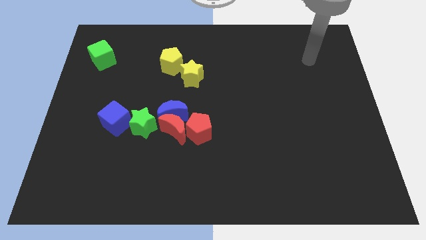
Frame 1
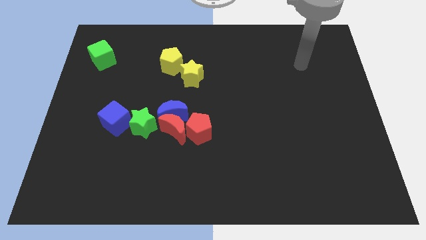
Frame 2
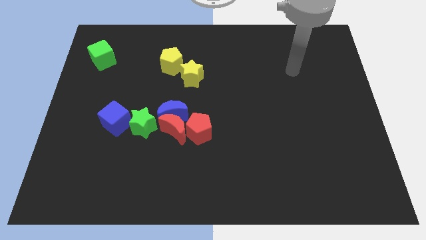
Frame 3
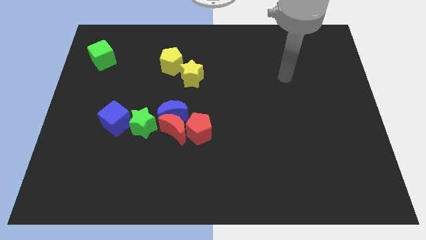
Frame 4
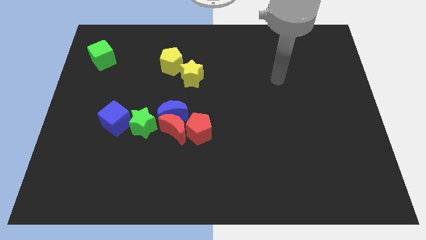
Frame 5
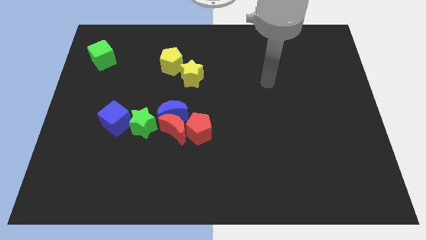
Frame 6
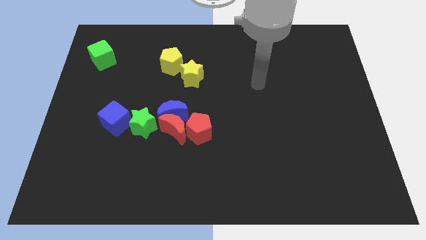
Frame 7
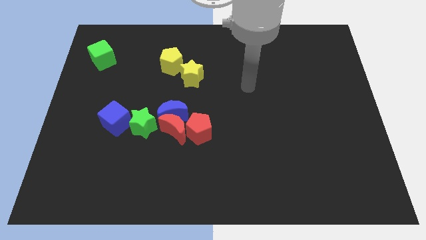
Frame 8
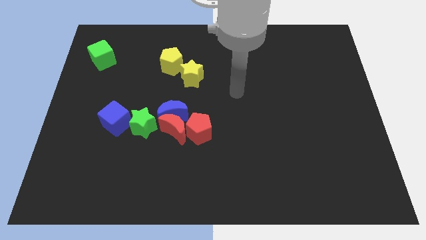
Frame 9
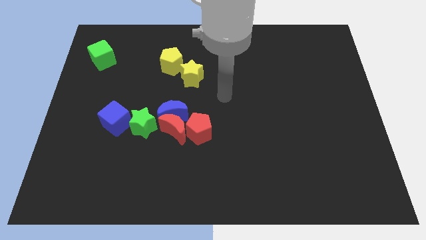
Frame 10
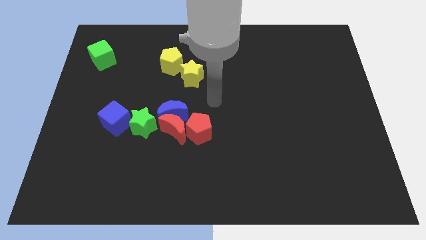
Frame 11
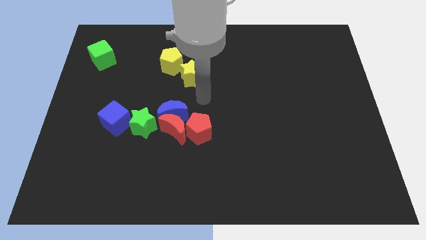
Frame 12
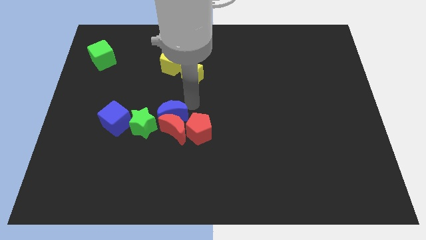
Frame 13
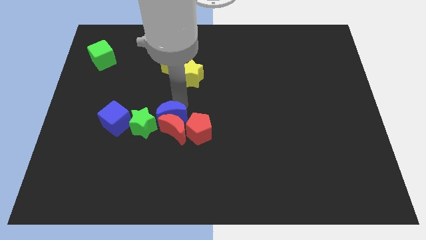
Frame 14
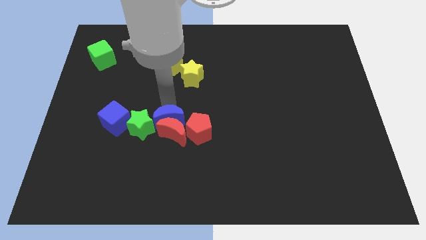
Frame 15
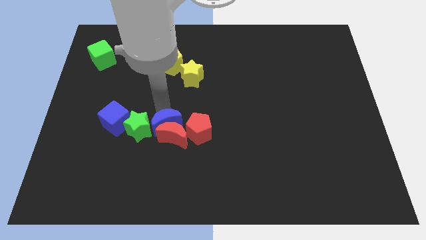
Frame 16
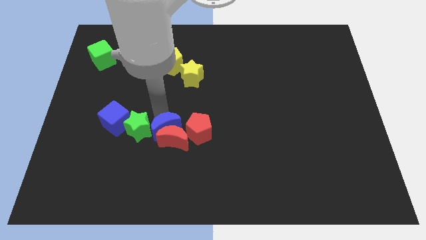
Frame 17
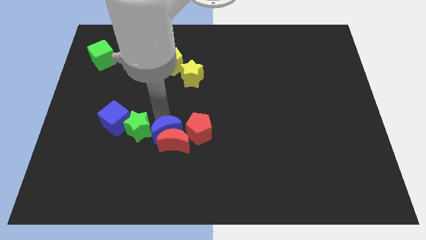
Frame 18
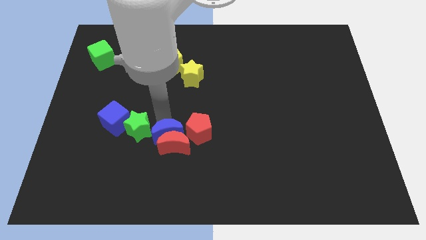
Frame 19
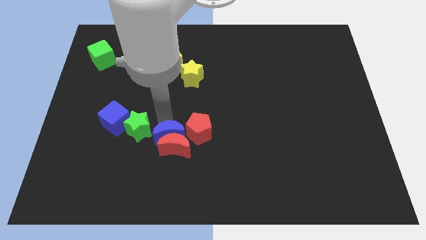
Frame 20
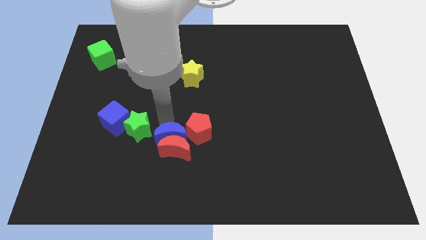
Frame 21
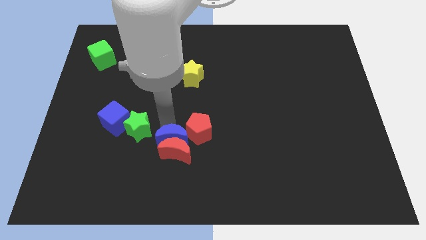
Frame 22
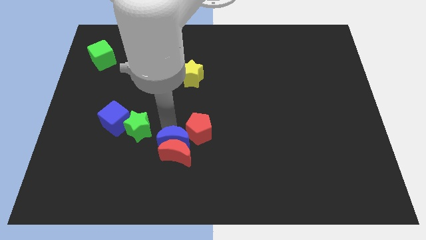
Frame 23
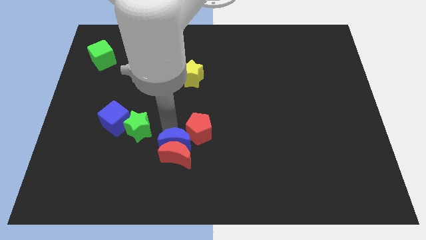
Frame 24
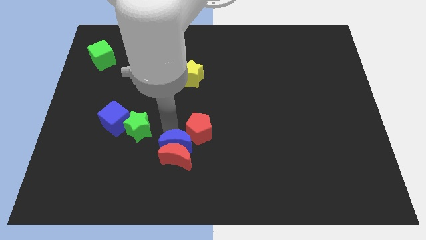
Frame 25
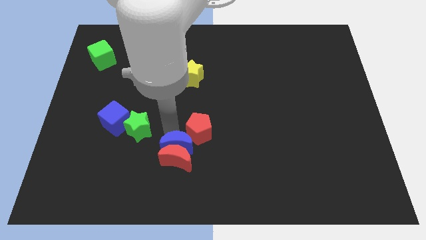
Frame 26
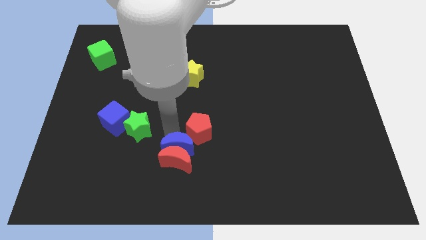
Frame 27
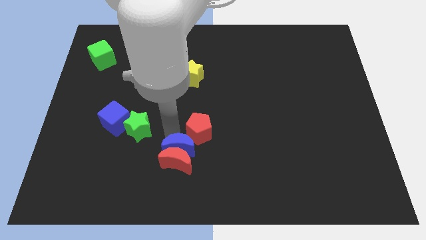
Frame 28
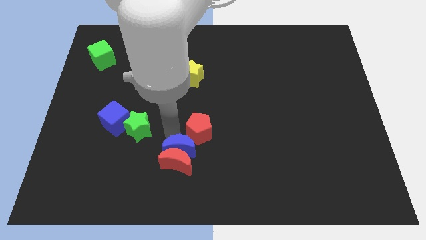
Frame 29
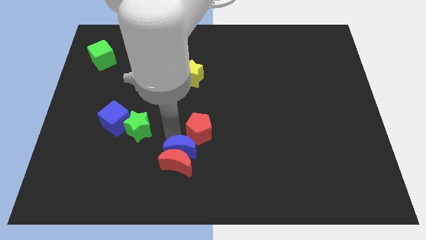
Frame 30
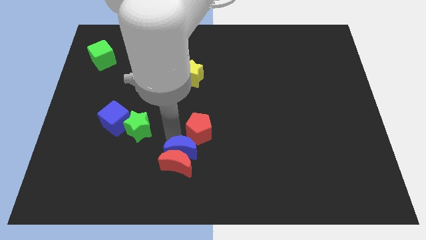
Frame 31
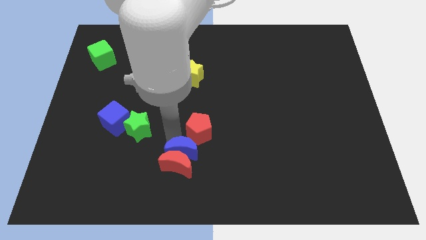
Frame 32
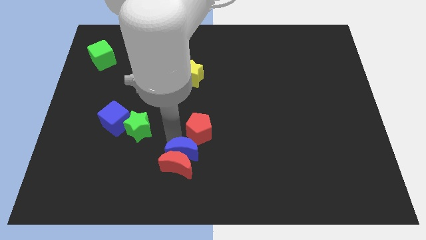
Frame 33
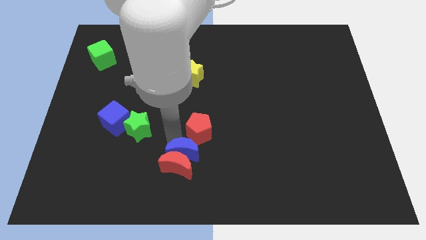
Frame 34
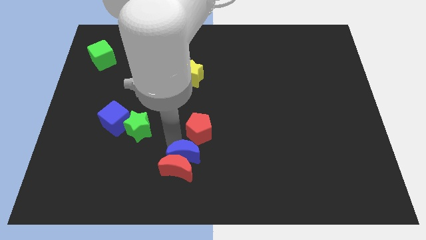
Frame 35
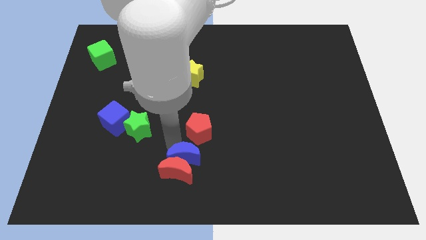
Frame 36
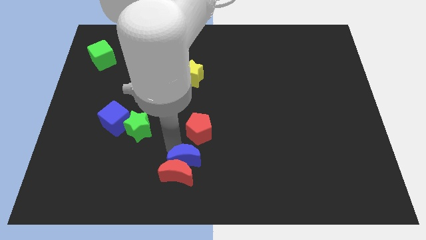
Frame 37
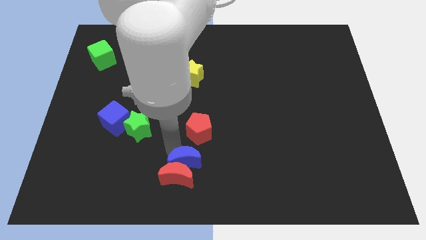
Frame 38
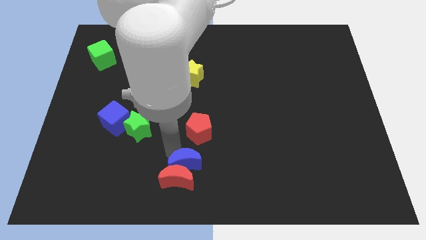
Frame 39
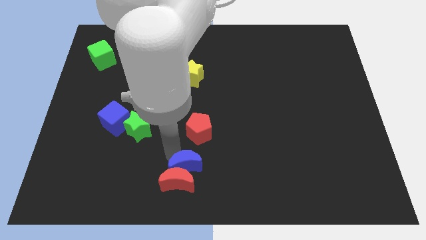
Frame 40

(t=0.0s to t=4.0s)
move the red moon away from the blue moon, red pentagon, and green star

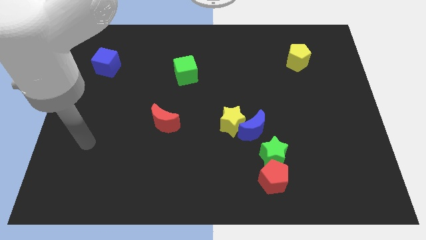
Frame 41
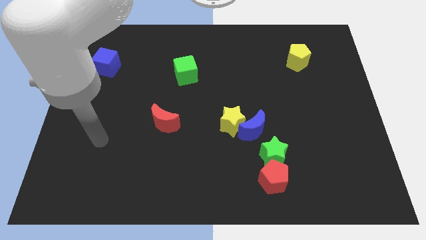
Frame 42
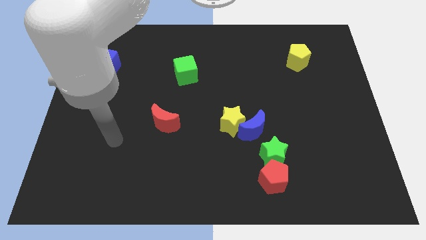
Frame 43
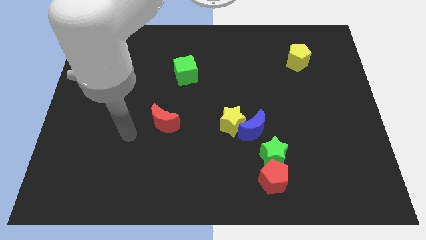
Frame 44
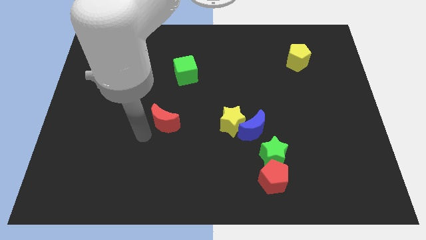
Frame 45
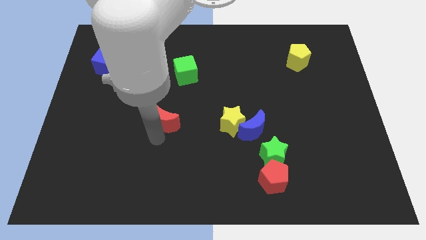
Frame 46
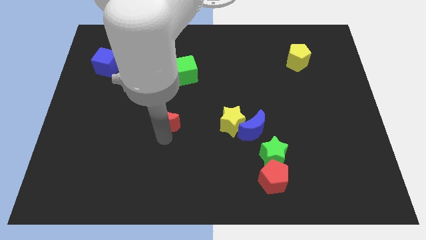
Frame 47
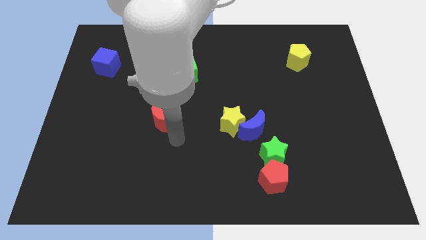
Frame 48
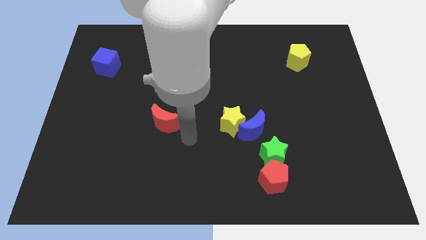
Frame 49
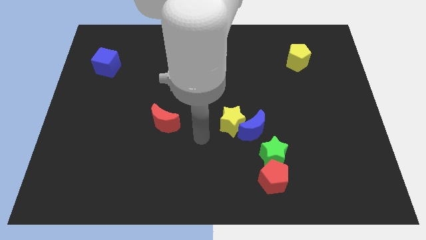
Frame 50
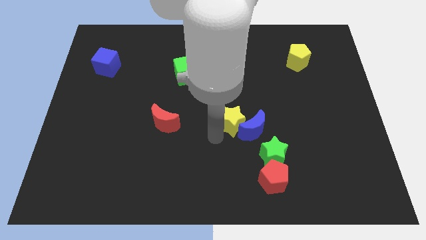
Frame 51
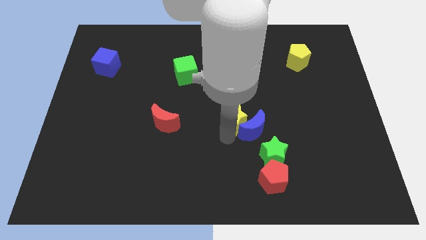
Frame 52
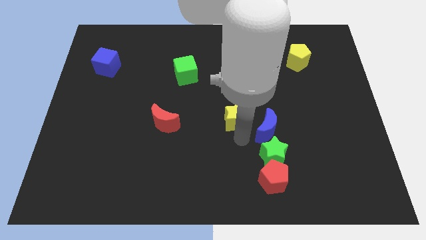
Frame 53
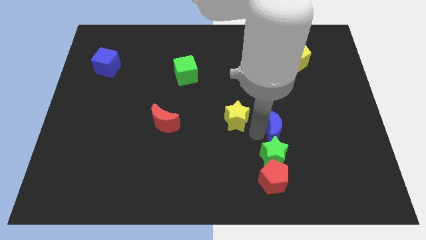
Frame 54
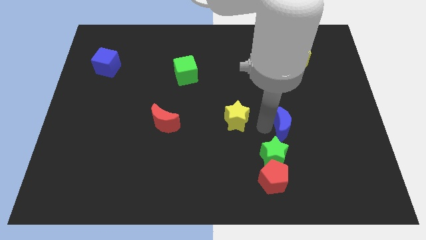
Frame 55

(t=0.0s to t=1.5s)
pull the yellow star apart from the blue moon

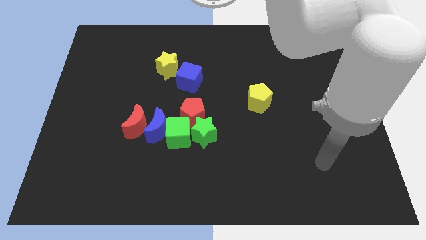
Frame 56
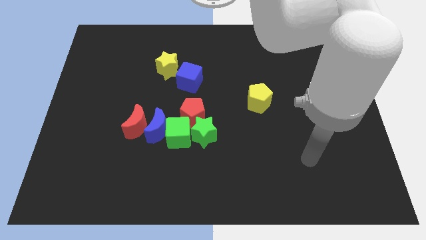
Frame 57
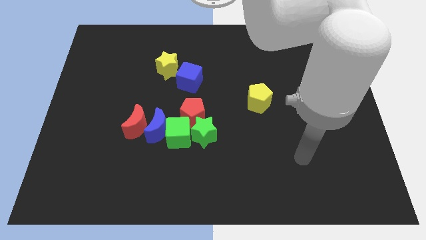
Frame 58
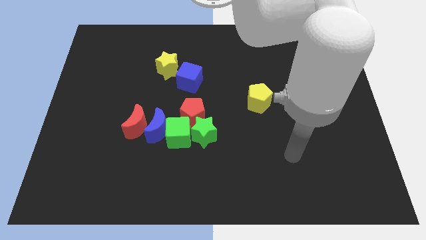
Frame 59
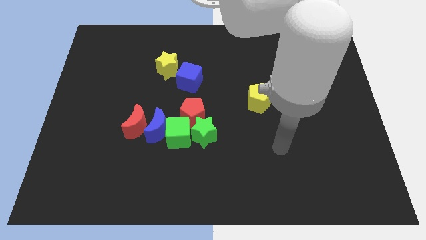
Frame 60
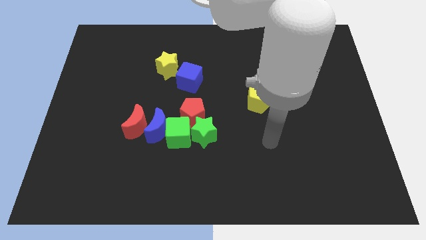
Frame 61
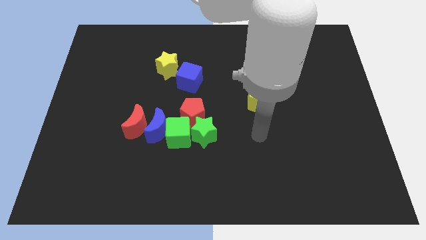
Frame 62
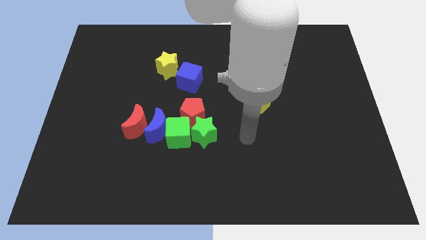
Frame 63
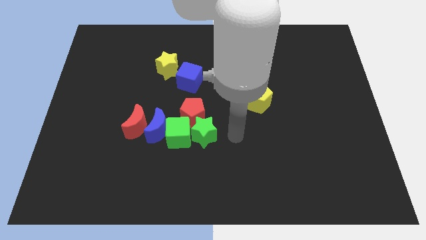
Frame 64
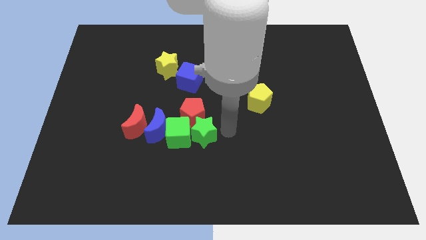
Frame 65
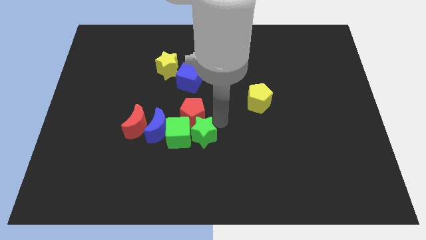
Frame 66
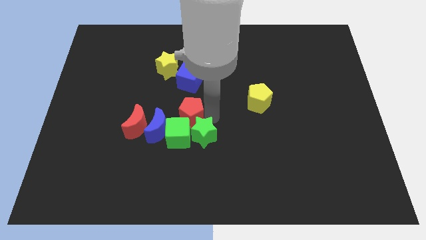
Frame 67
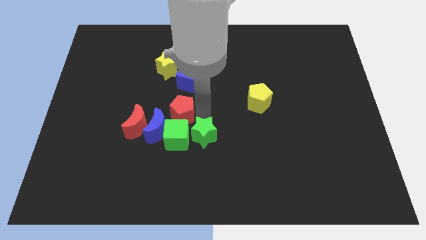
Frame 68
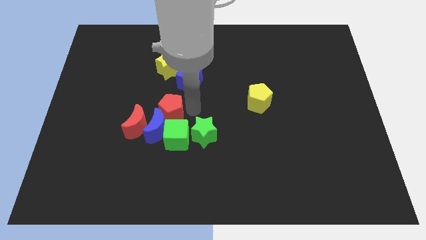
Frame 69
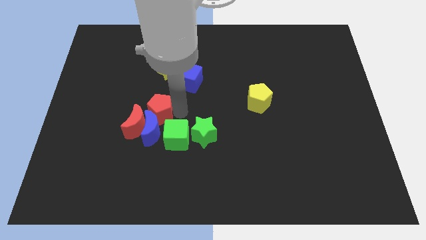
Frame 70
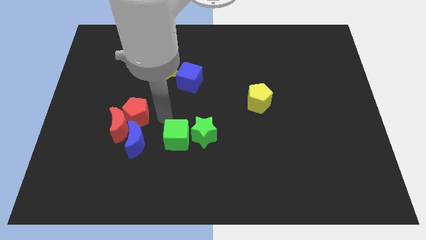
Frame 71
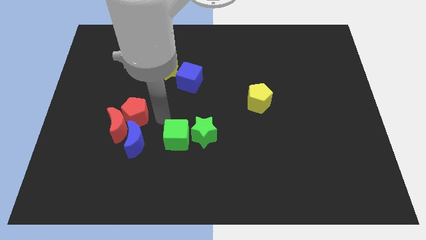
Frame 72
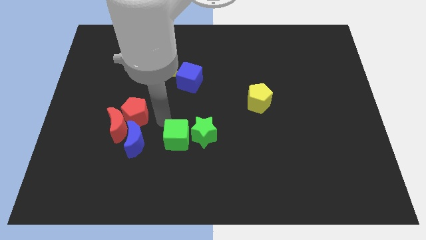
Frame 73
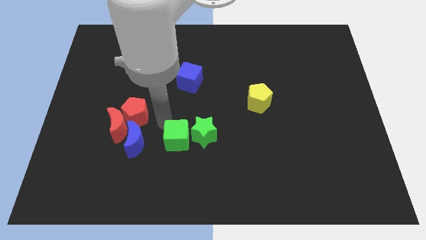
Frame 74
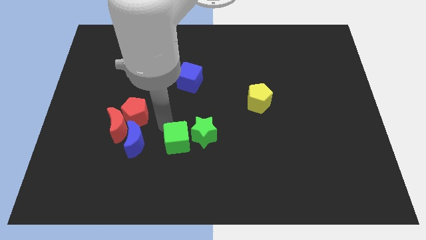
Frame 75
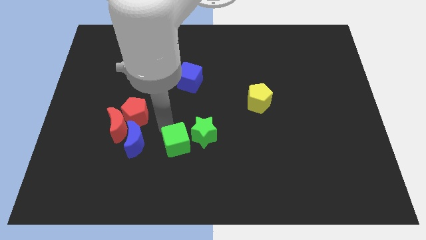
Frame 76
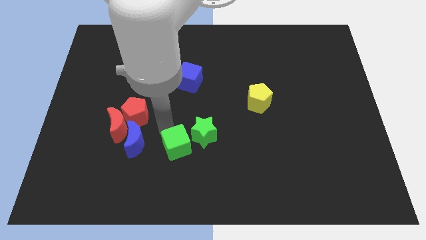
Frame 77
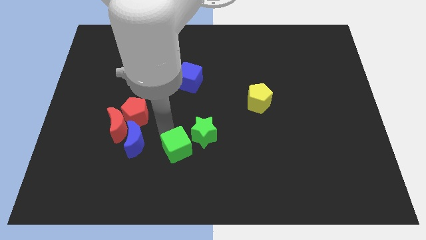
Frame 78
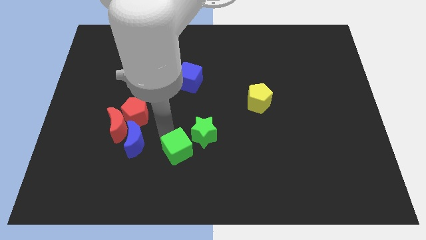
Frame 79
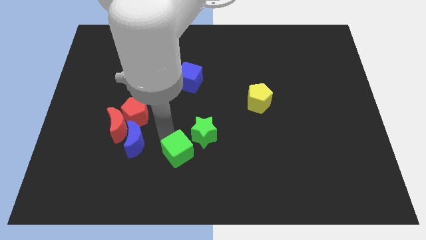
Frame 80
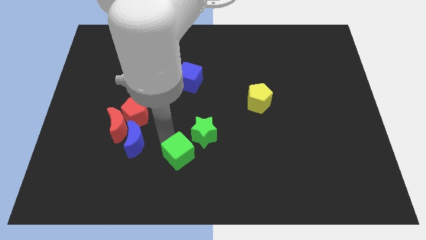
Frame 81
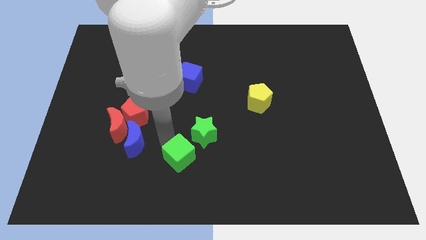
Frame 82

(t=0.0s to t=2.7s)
pull the green cube apart from the group

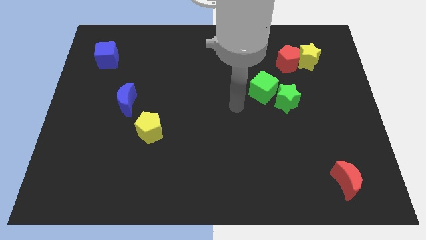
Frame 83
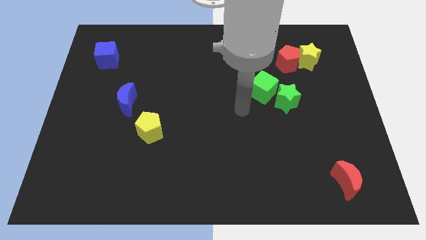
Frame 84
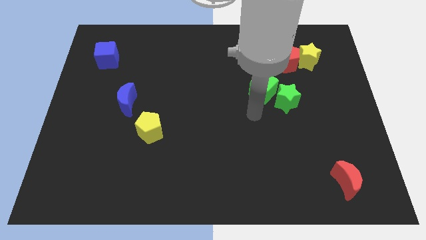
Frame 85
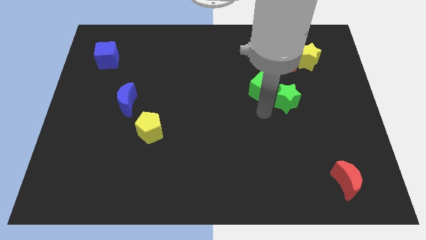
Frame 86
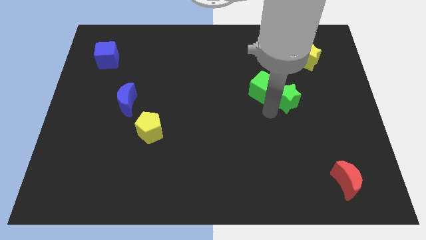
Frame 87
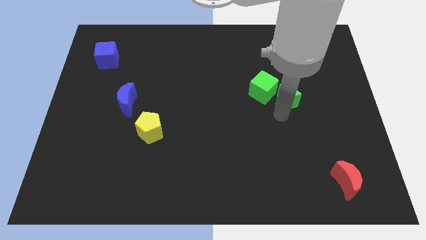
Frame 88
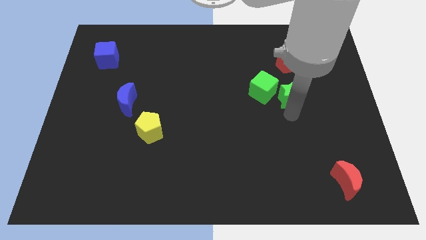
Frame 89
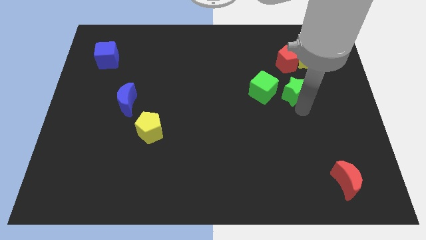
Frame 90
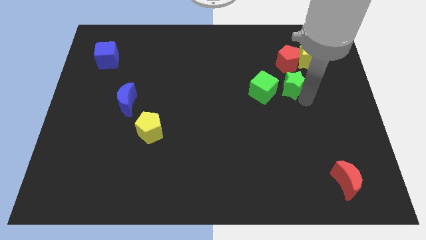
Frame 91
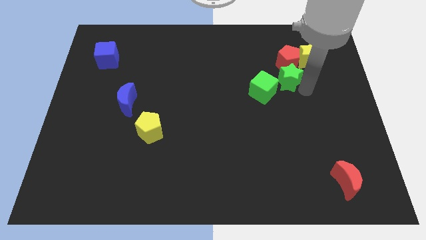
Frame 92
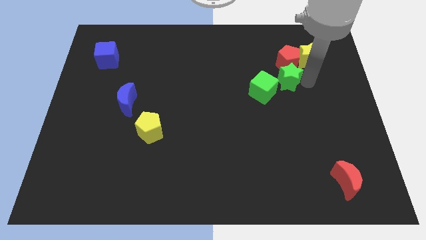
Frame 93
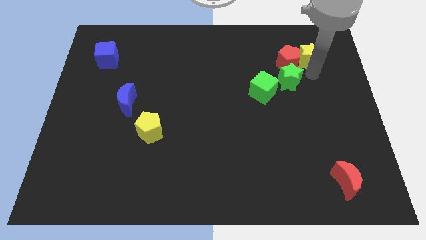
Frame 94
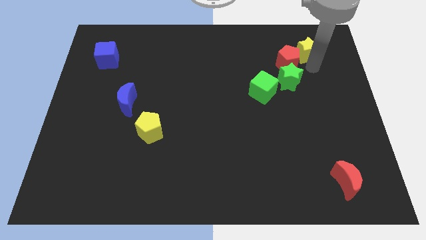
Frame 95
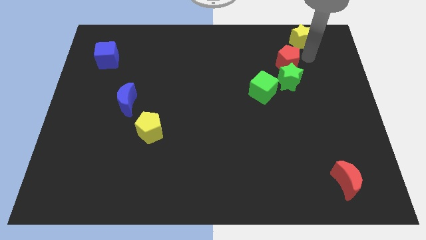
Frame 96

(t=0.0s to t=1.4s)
move the red pentagon away from the yellow star
